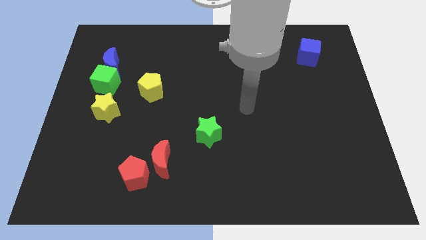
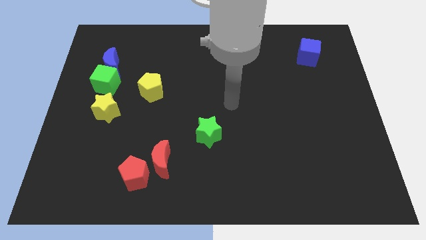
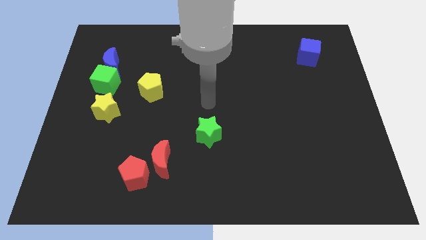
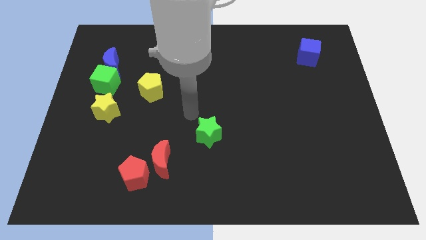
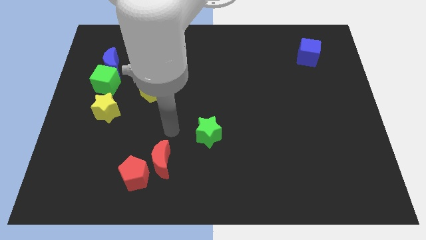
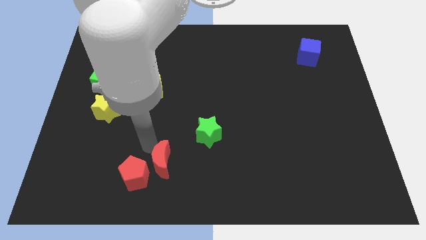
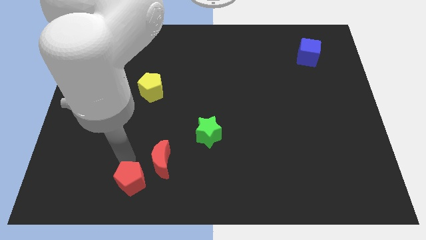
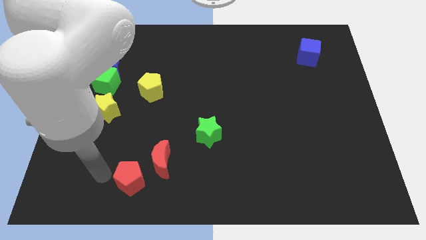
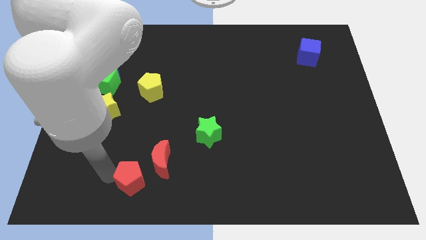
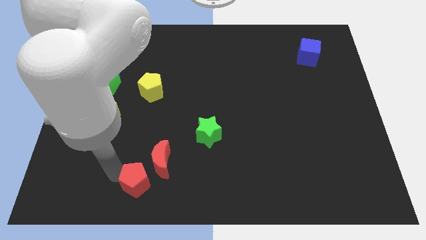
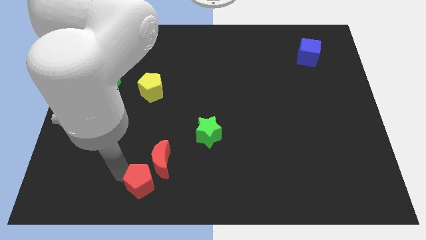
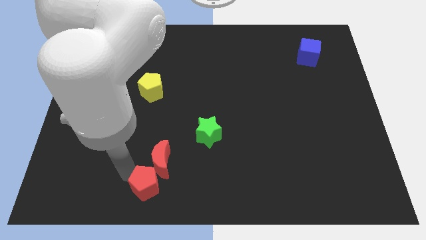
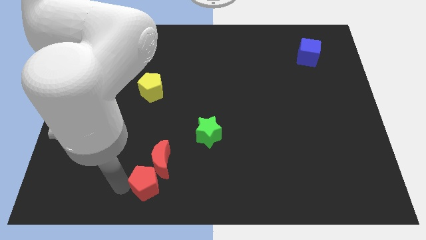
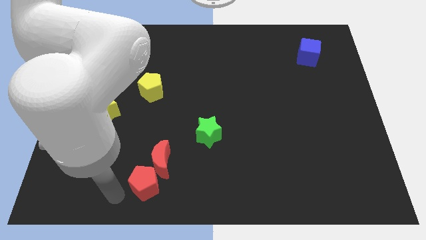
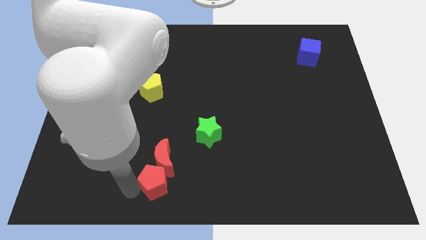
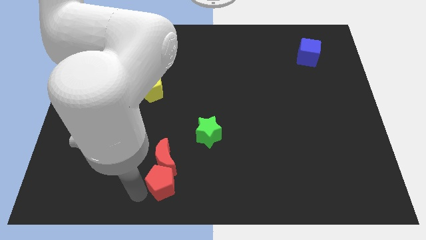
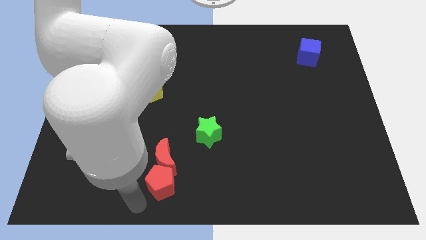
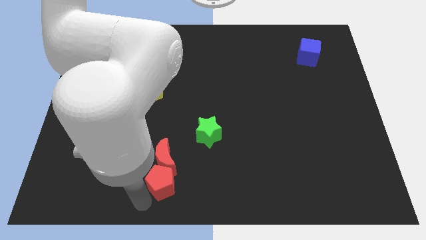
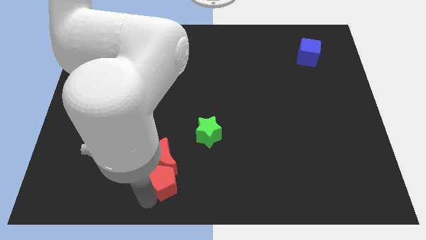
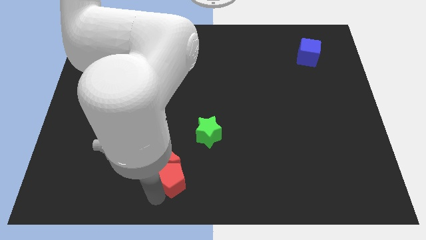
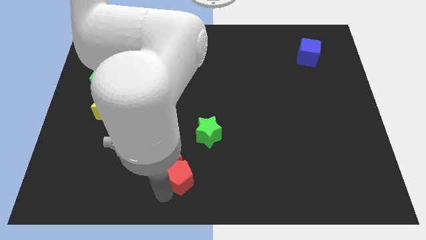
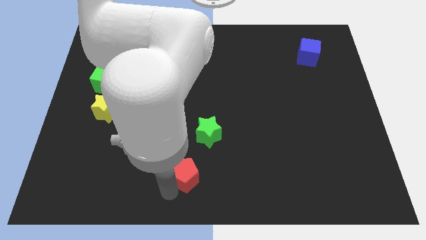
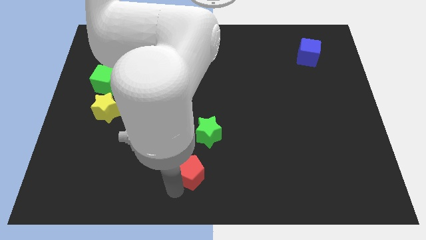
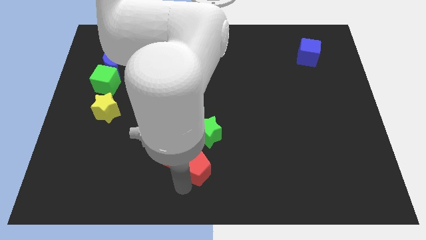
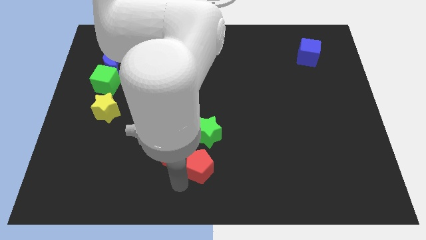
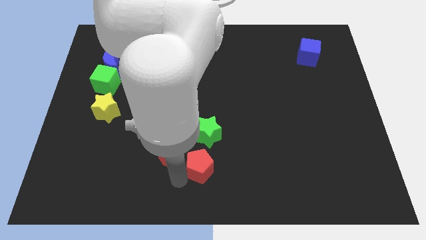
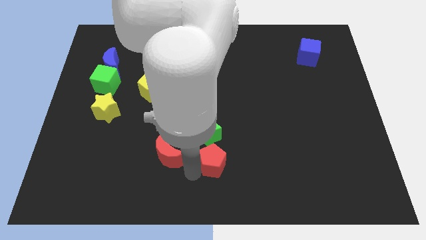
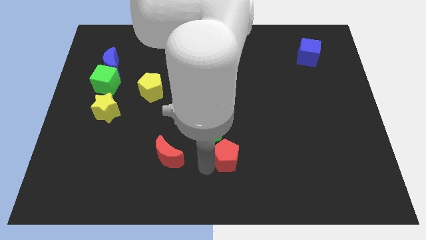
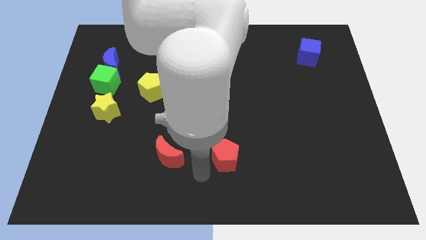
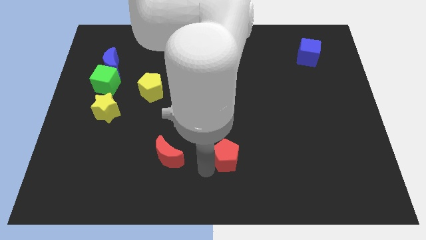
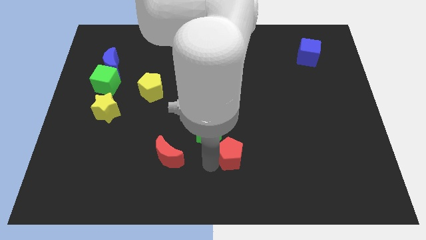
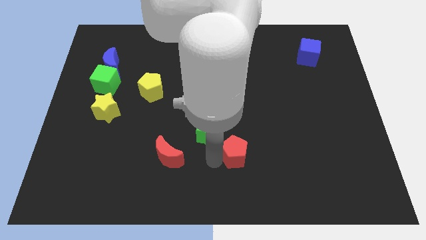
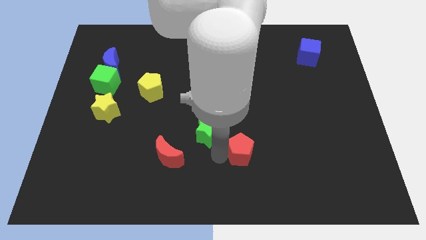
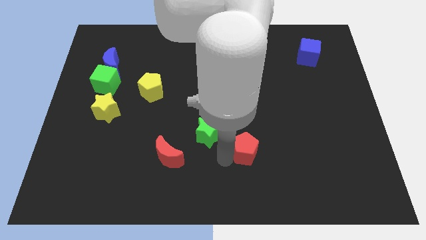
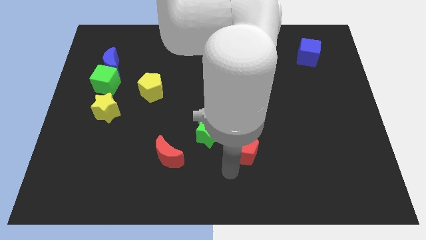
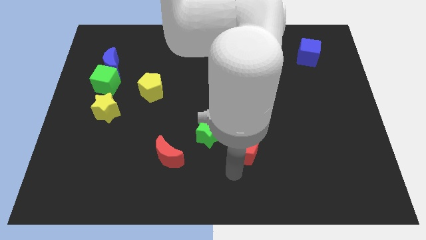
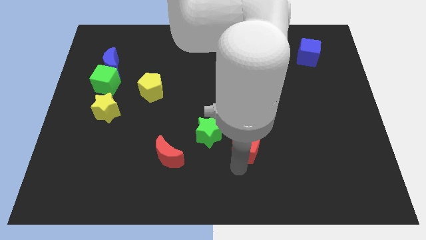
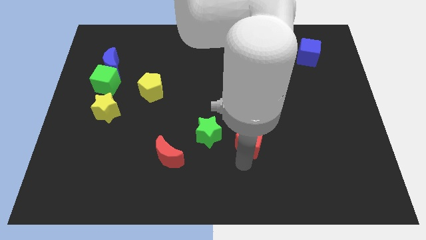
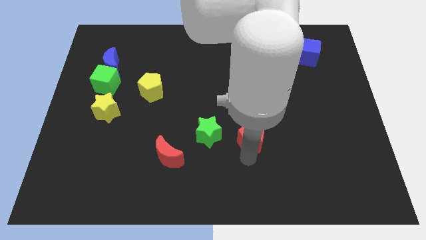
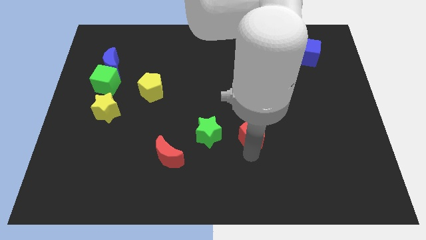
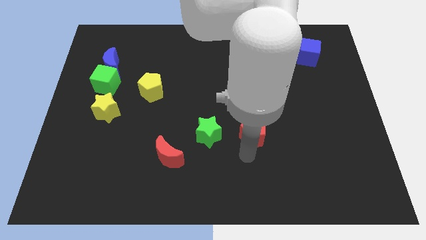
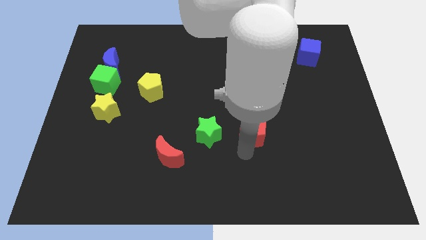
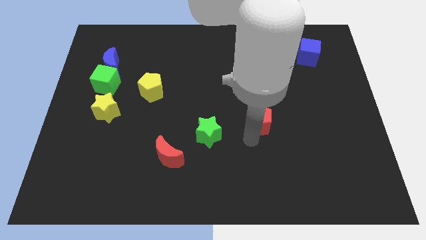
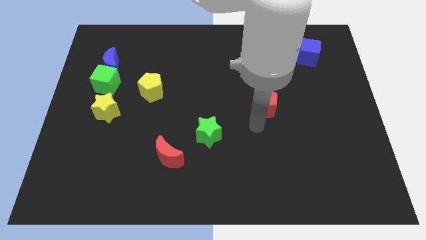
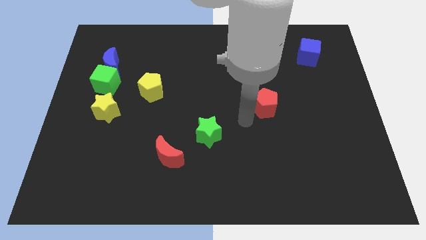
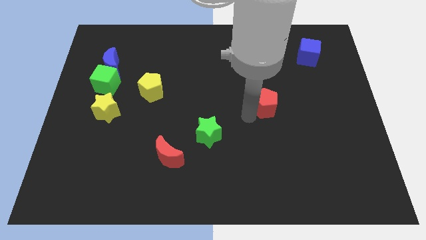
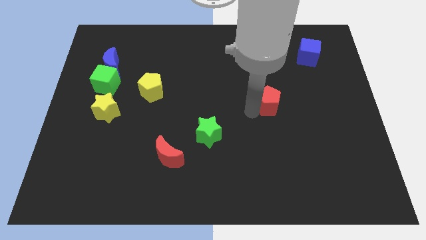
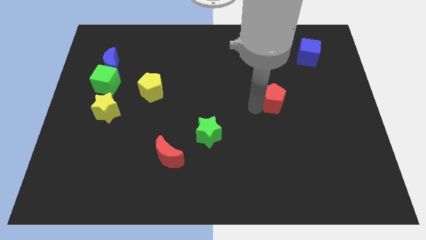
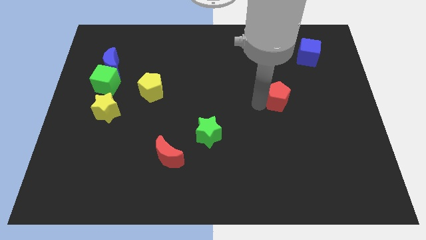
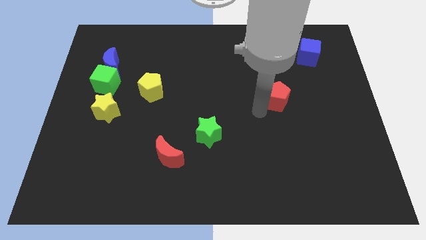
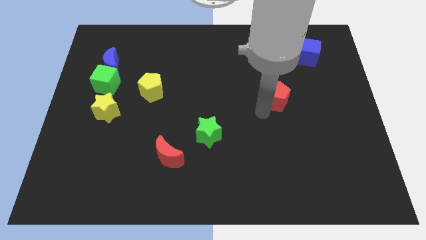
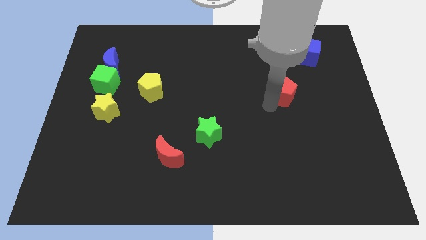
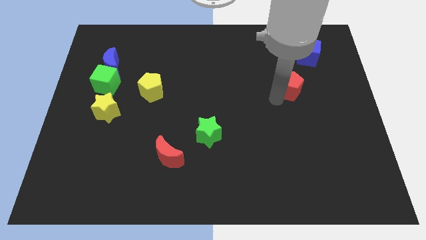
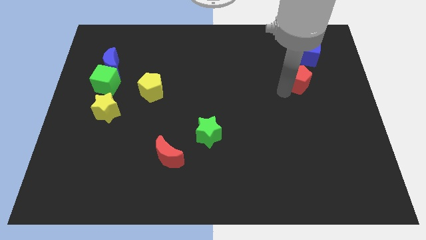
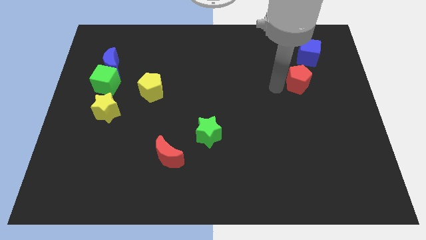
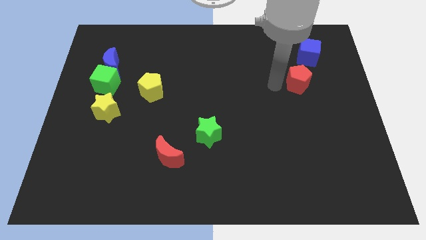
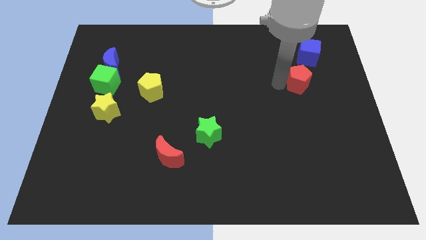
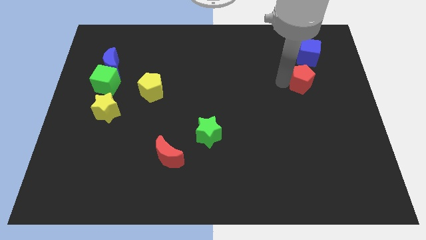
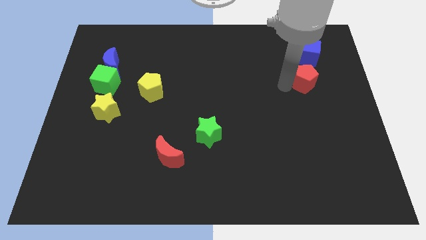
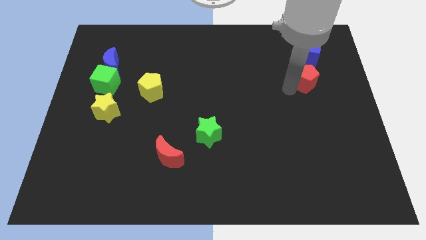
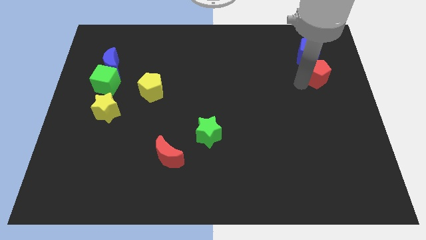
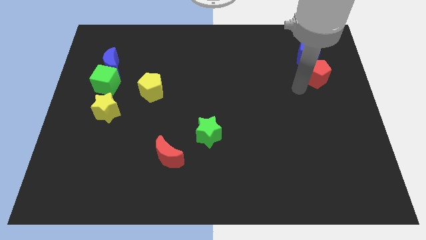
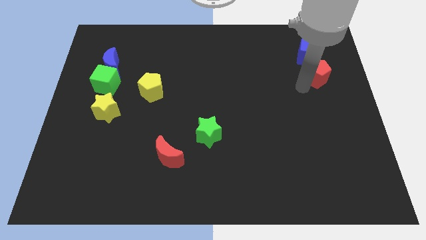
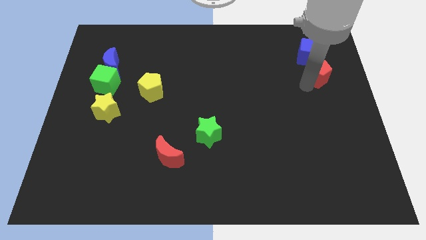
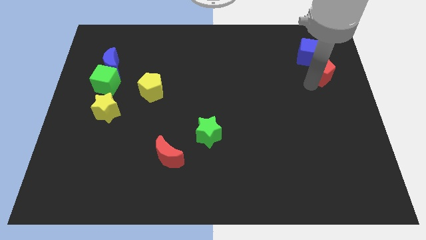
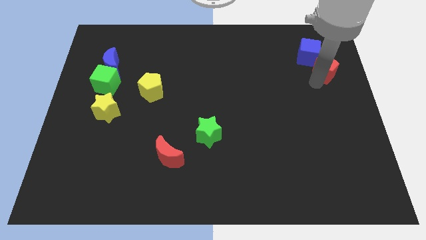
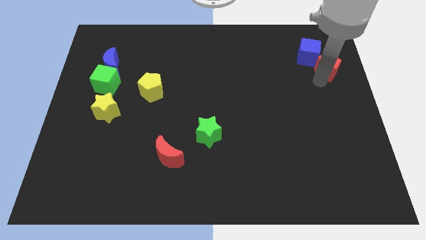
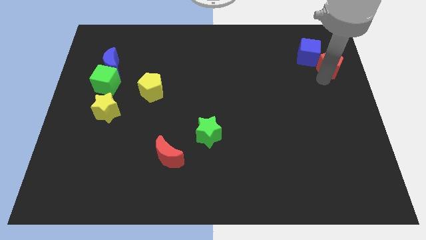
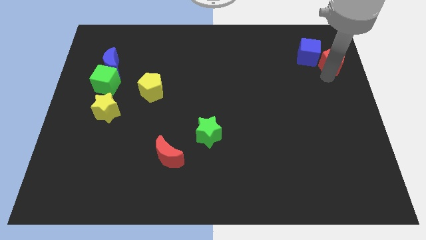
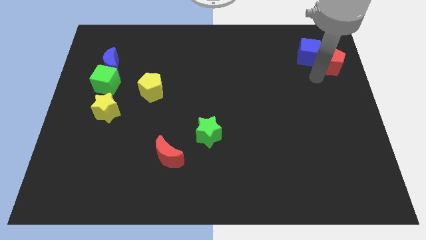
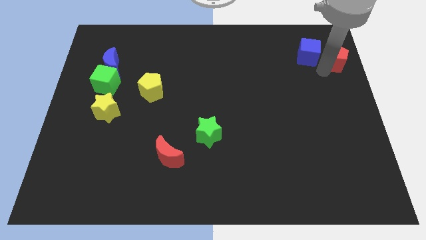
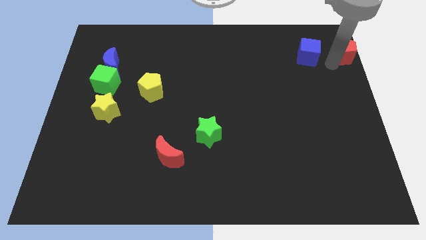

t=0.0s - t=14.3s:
slide the red pentagon to the top right corner

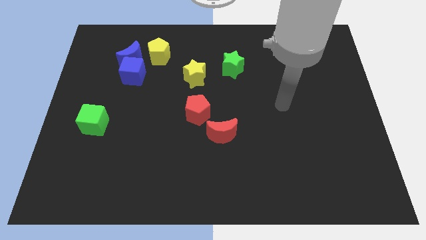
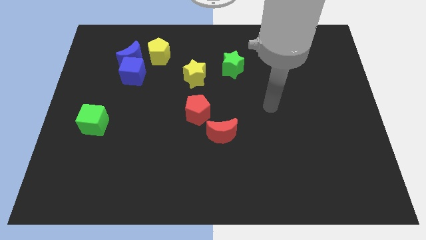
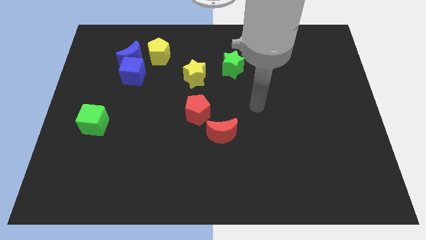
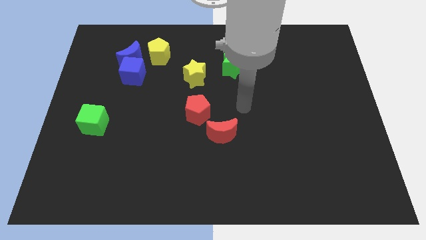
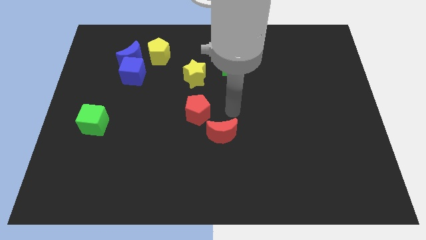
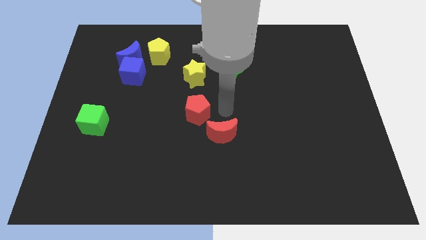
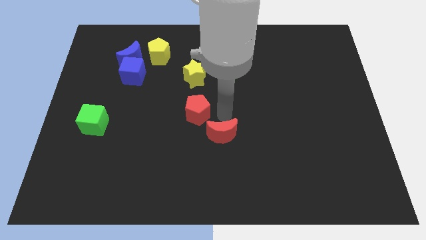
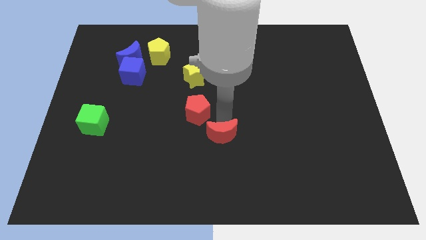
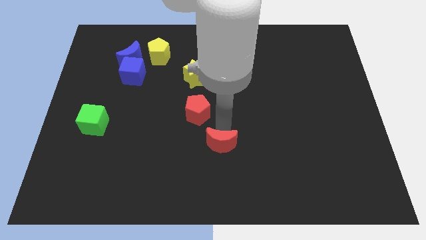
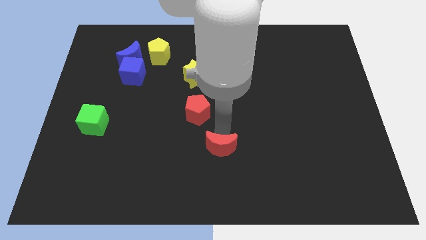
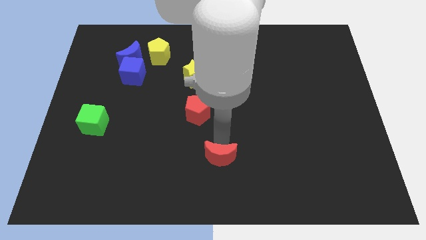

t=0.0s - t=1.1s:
move the red moon to the bottom
